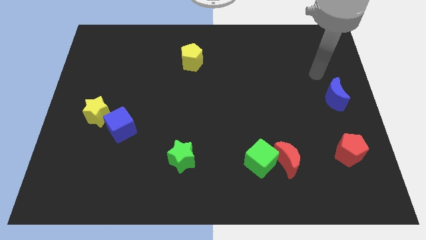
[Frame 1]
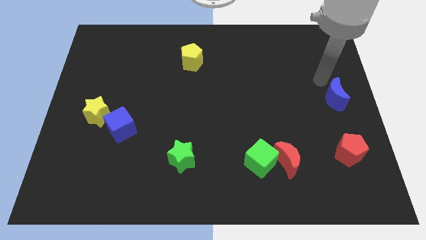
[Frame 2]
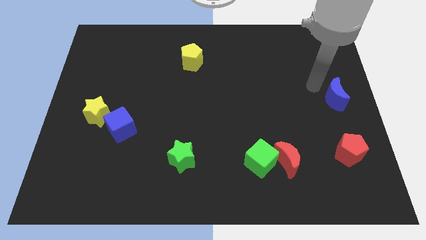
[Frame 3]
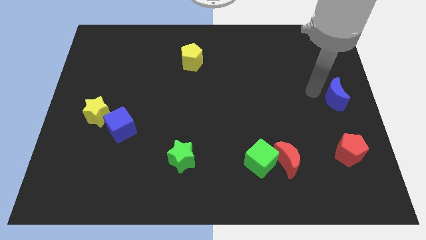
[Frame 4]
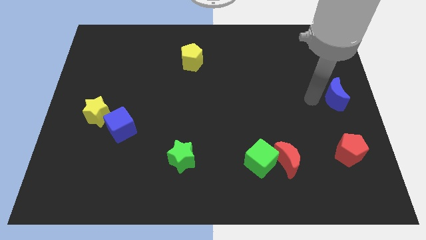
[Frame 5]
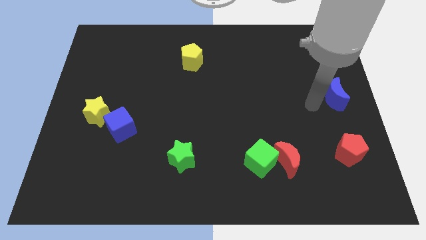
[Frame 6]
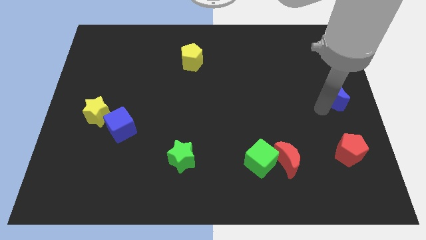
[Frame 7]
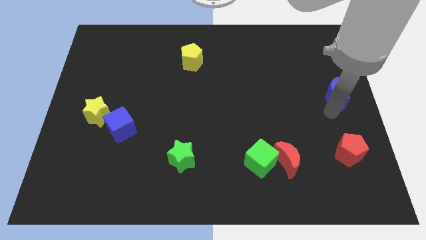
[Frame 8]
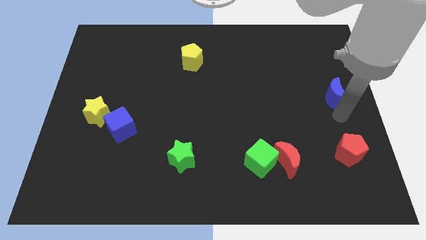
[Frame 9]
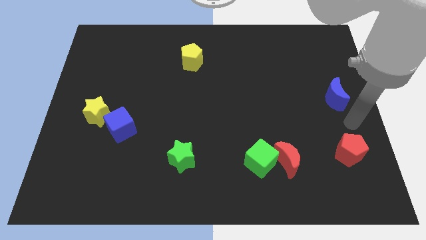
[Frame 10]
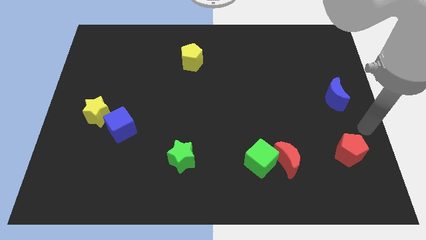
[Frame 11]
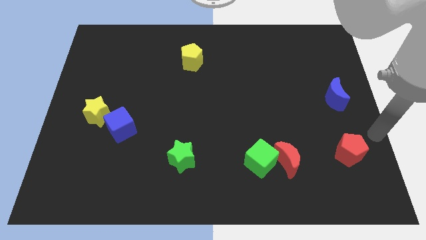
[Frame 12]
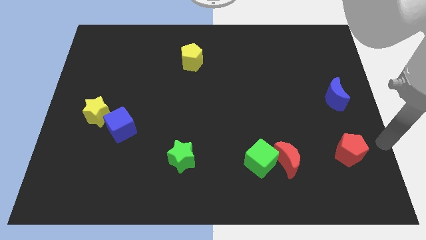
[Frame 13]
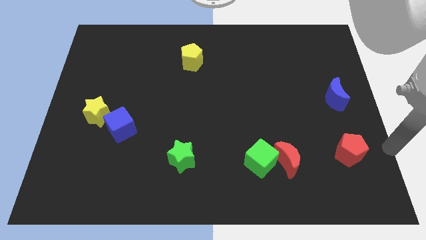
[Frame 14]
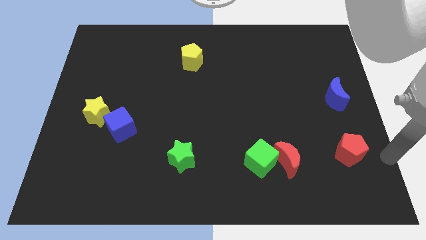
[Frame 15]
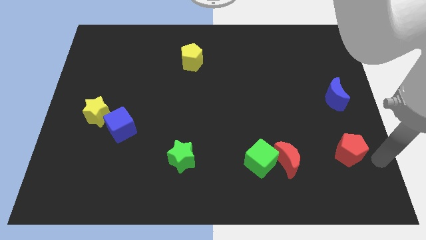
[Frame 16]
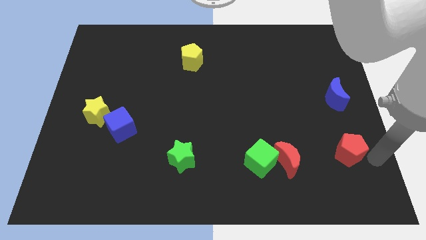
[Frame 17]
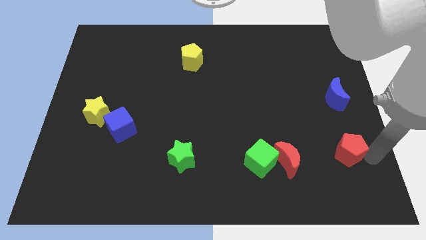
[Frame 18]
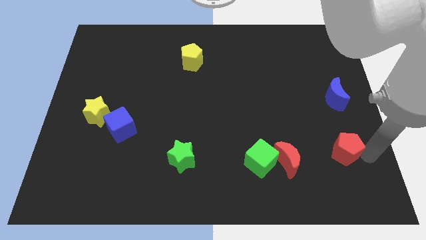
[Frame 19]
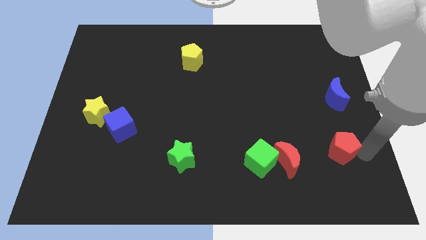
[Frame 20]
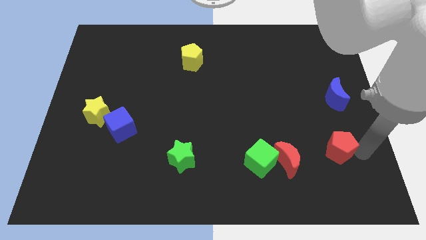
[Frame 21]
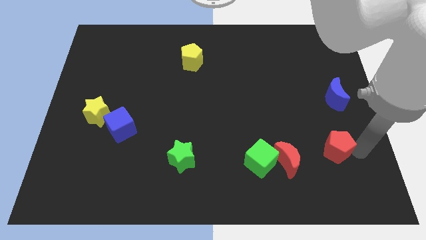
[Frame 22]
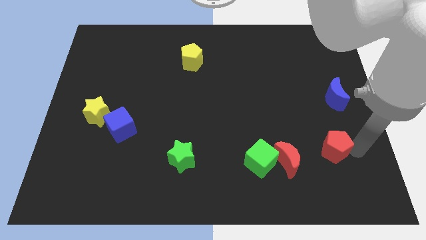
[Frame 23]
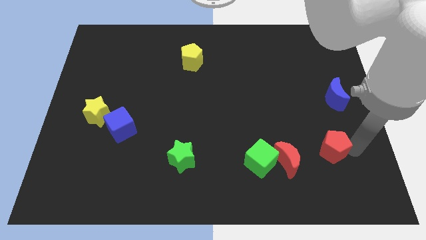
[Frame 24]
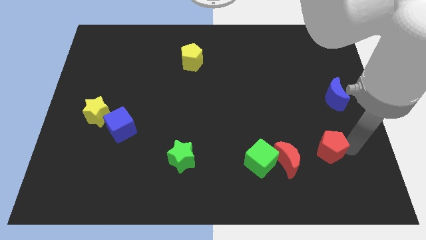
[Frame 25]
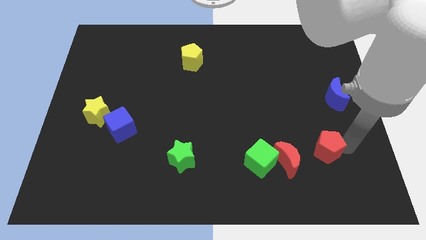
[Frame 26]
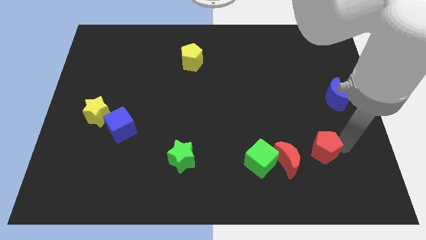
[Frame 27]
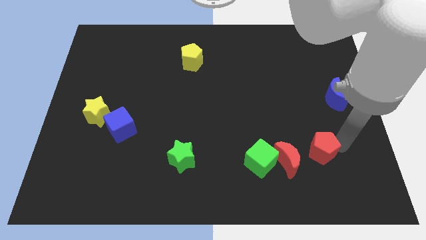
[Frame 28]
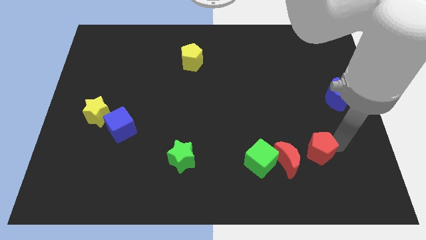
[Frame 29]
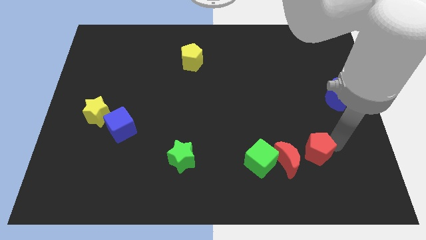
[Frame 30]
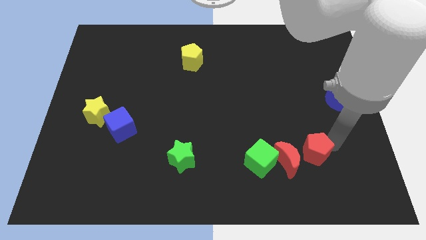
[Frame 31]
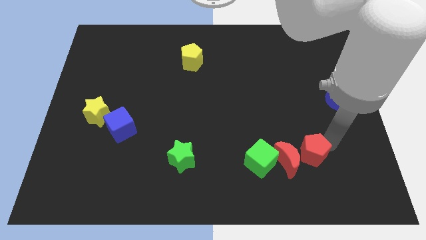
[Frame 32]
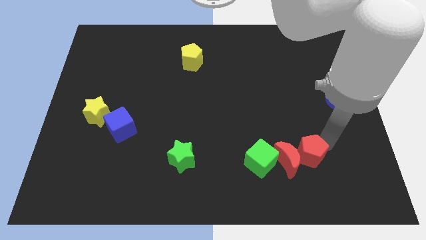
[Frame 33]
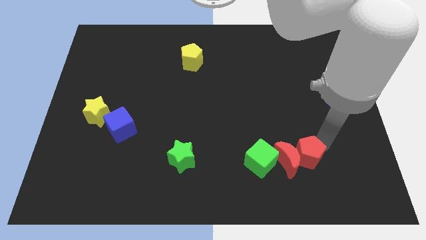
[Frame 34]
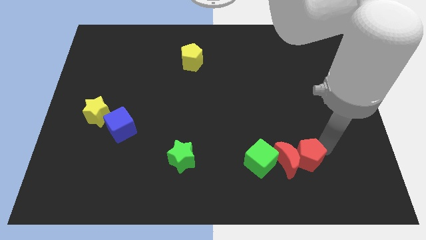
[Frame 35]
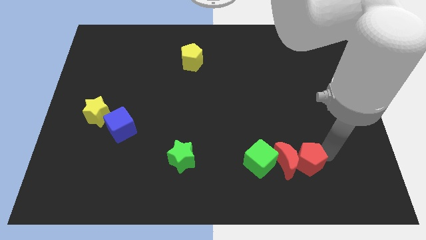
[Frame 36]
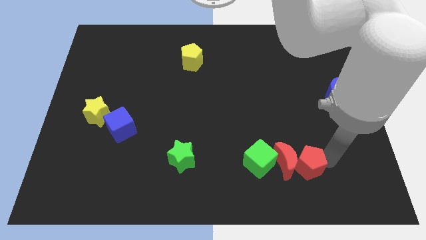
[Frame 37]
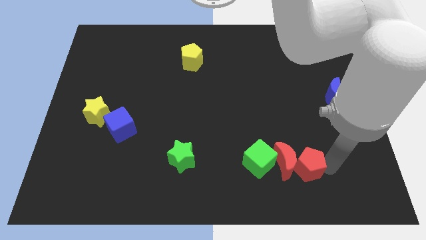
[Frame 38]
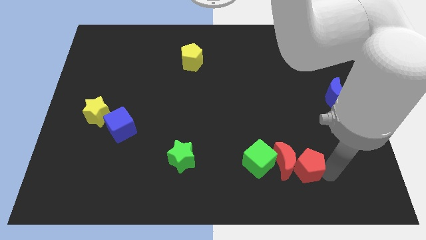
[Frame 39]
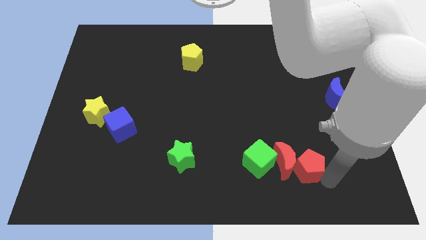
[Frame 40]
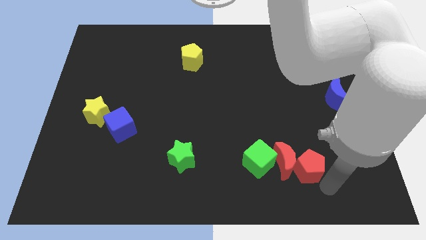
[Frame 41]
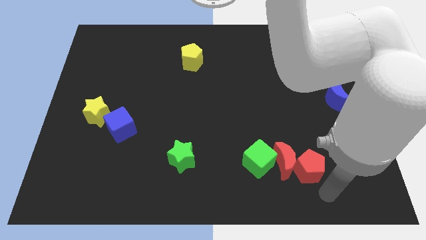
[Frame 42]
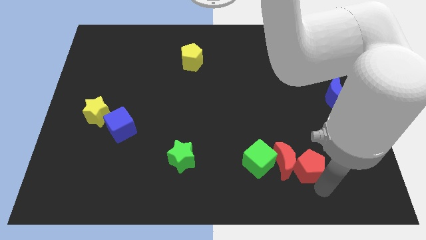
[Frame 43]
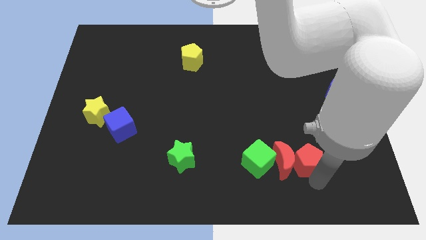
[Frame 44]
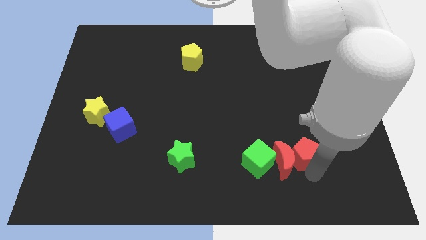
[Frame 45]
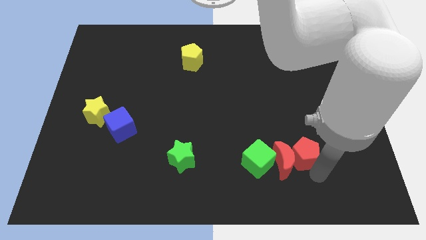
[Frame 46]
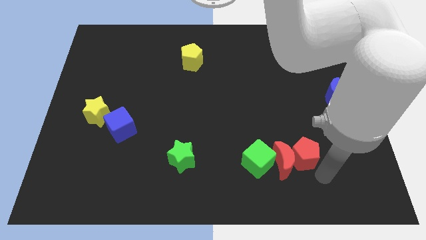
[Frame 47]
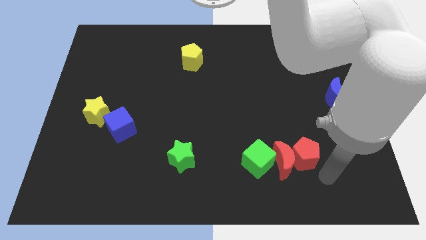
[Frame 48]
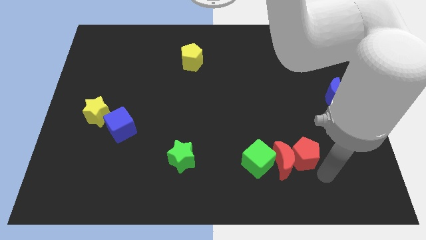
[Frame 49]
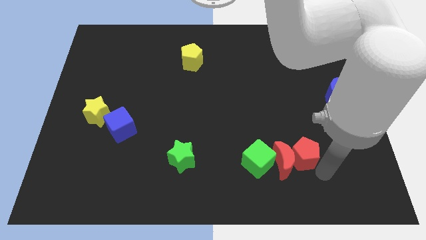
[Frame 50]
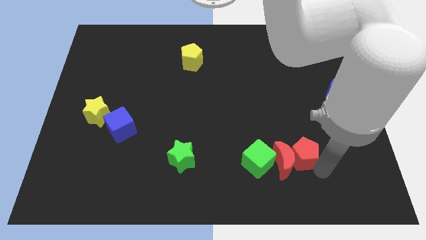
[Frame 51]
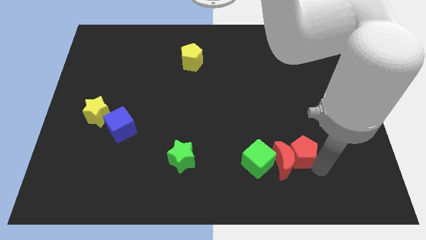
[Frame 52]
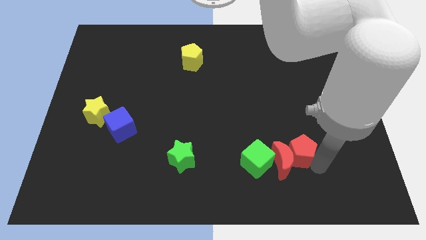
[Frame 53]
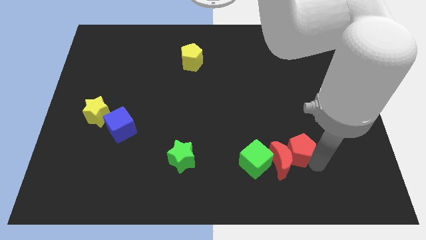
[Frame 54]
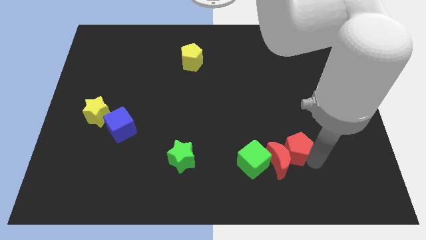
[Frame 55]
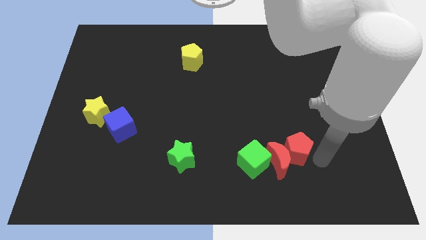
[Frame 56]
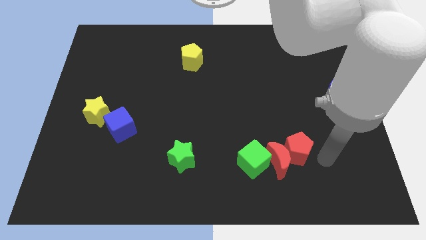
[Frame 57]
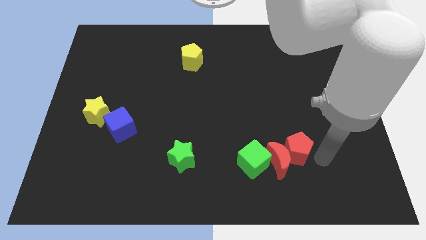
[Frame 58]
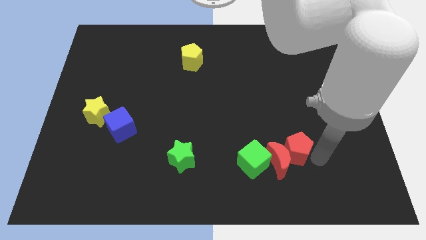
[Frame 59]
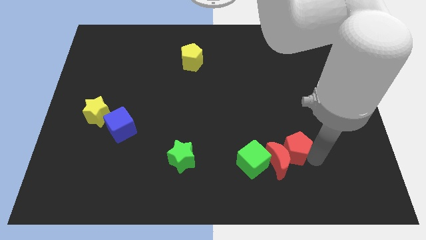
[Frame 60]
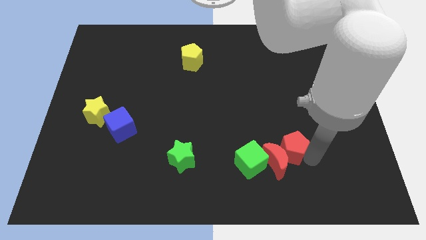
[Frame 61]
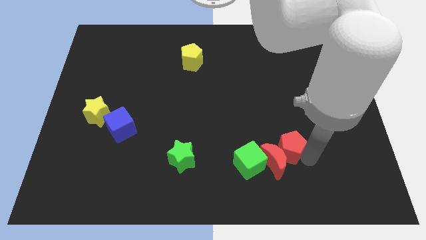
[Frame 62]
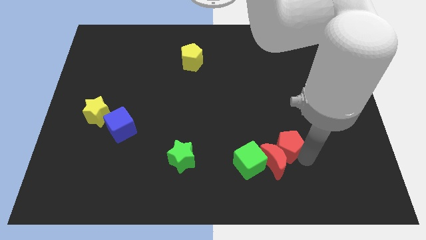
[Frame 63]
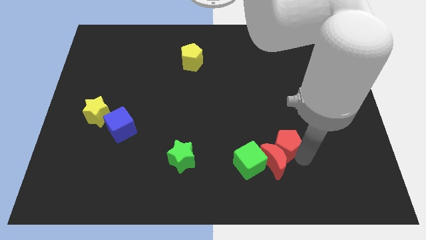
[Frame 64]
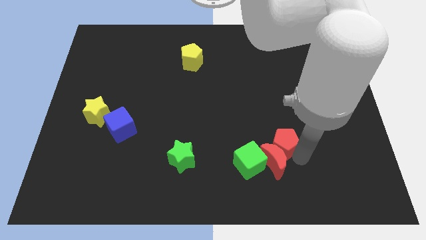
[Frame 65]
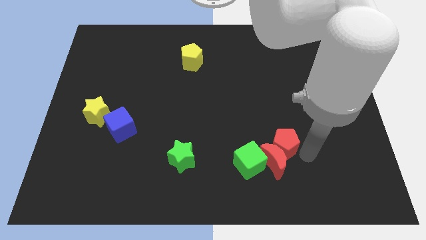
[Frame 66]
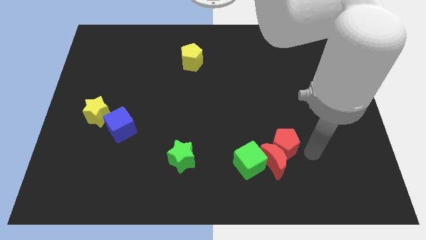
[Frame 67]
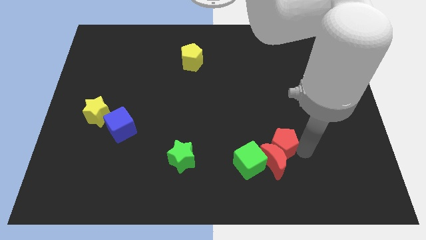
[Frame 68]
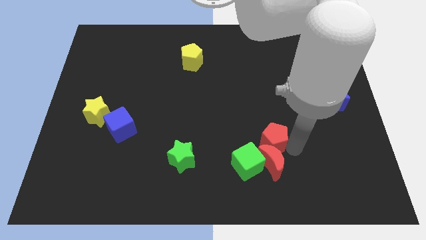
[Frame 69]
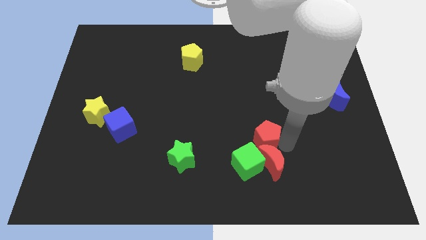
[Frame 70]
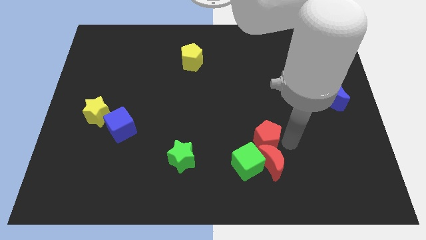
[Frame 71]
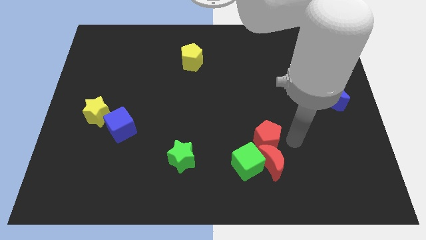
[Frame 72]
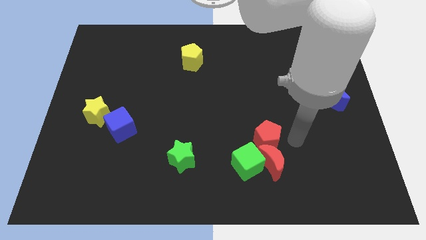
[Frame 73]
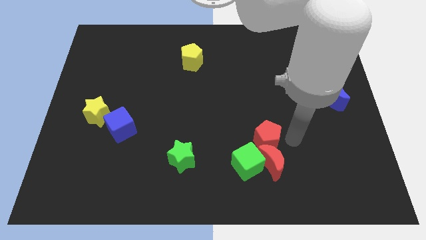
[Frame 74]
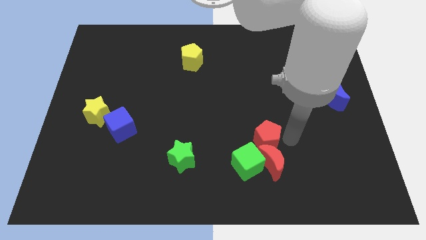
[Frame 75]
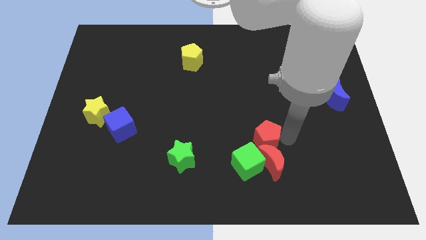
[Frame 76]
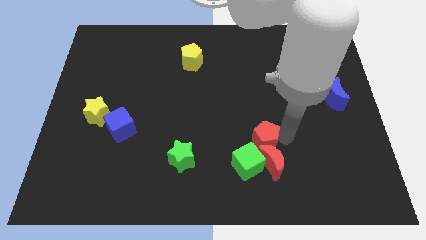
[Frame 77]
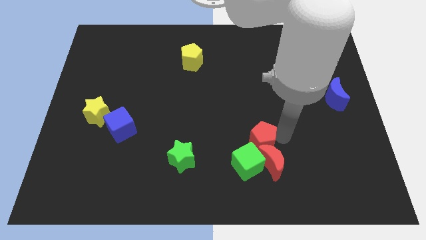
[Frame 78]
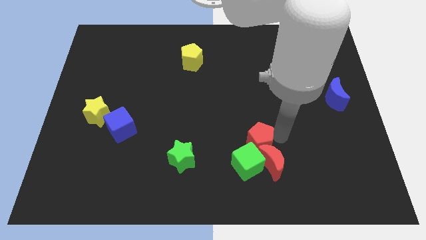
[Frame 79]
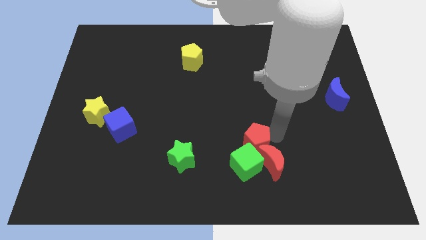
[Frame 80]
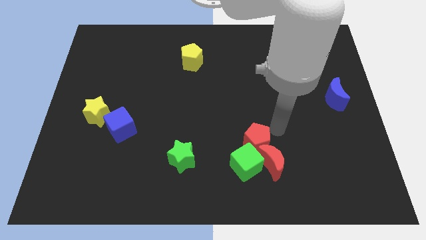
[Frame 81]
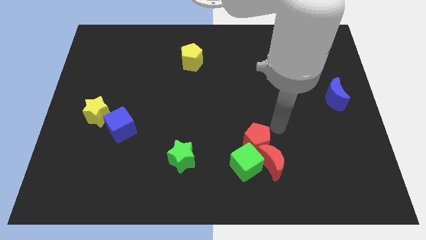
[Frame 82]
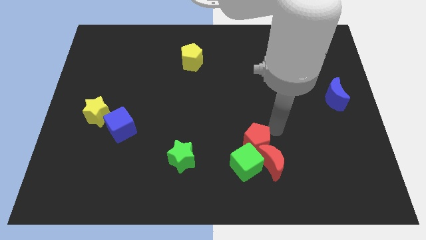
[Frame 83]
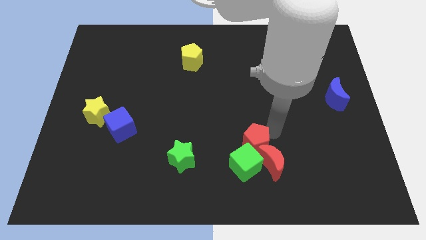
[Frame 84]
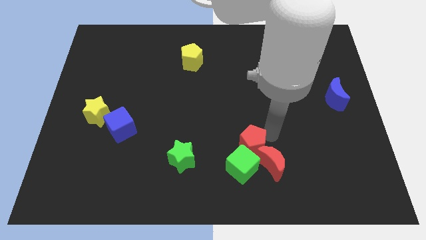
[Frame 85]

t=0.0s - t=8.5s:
put the red pentagon just left of the red moon
